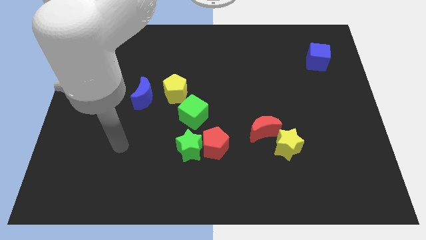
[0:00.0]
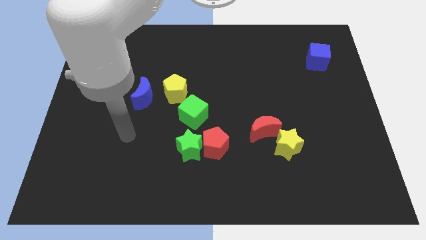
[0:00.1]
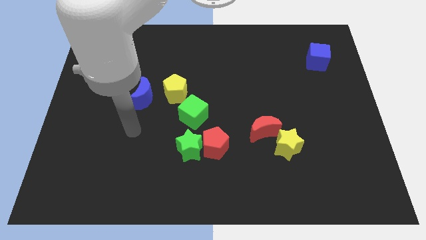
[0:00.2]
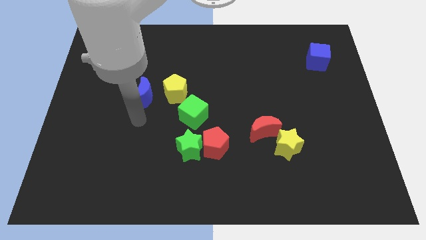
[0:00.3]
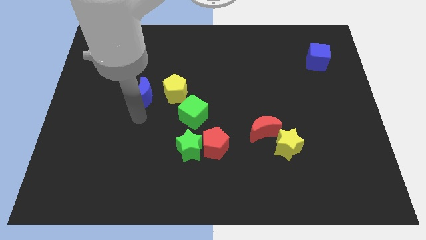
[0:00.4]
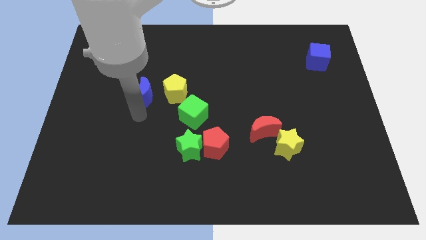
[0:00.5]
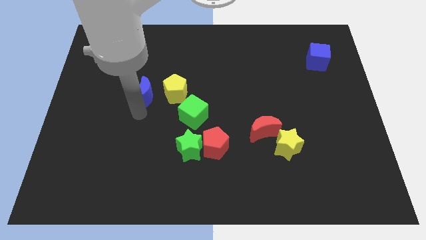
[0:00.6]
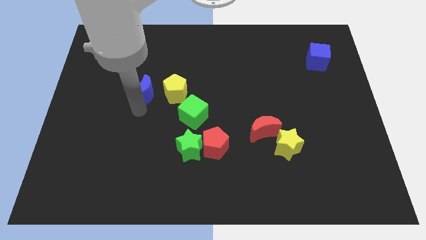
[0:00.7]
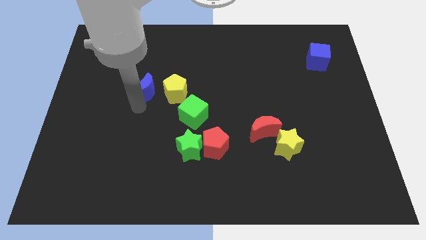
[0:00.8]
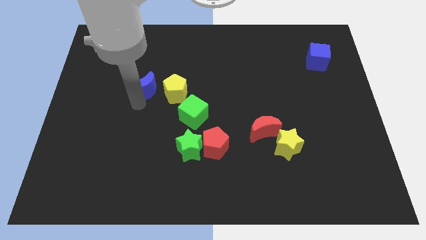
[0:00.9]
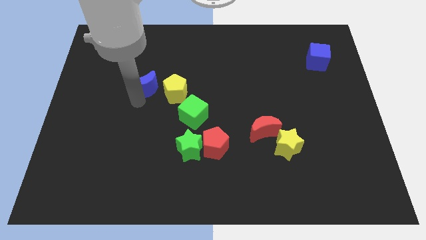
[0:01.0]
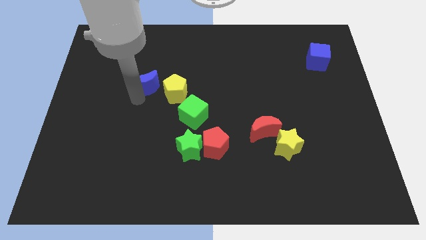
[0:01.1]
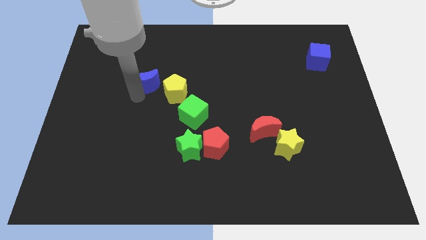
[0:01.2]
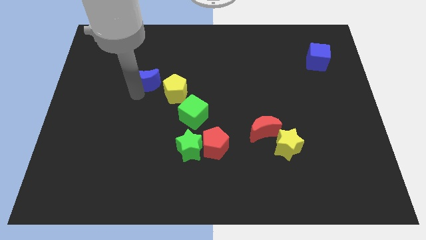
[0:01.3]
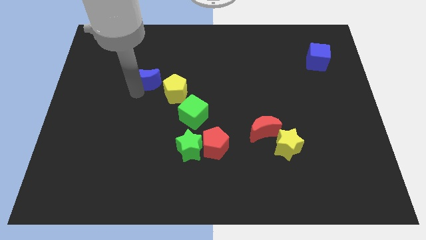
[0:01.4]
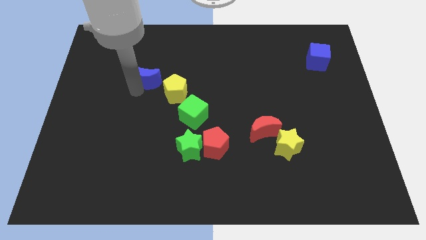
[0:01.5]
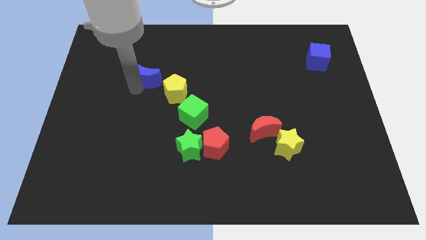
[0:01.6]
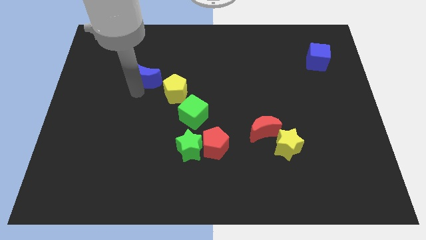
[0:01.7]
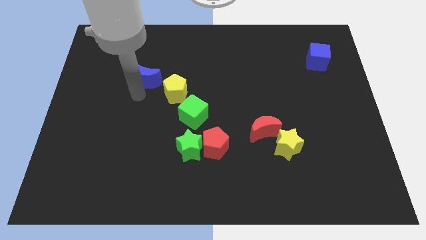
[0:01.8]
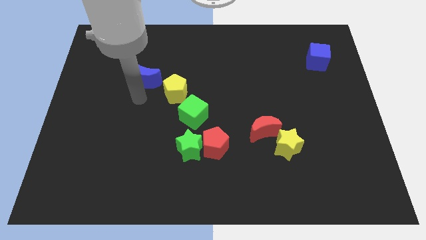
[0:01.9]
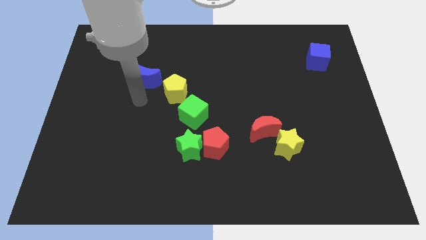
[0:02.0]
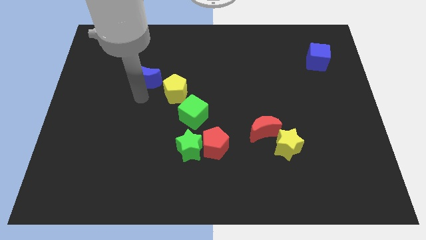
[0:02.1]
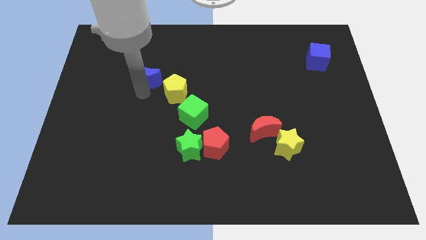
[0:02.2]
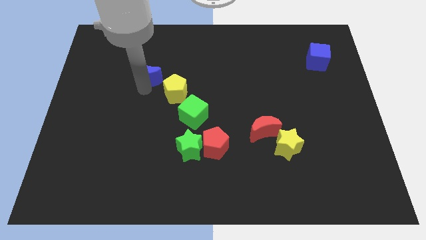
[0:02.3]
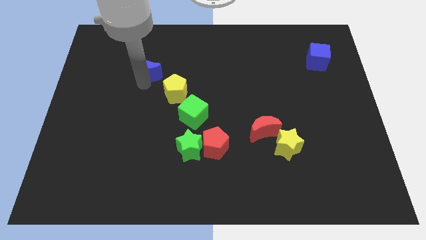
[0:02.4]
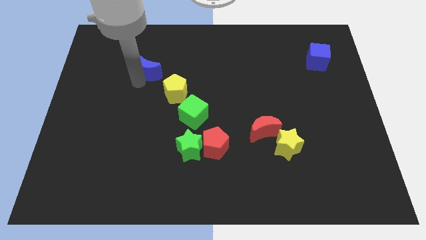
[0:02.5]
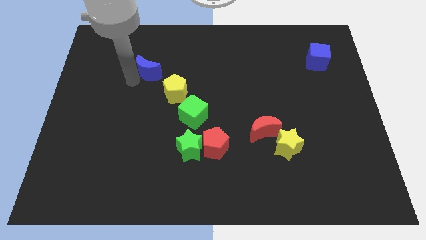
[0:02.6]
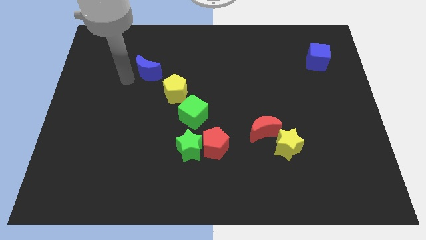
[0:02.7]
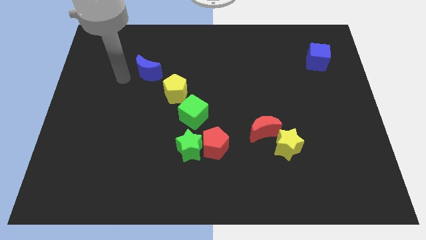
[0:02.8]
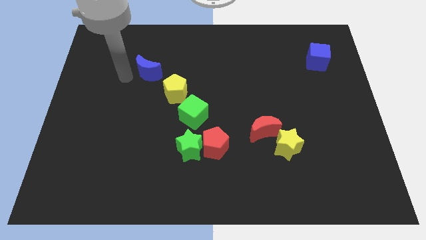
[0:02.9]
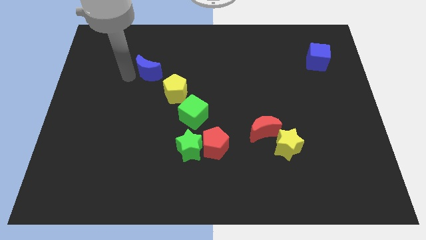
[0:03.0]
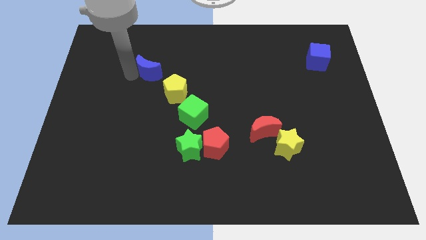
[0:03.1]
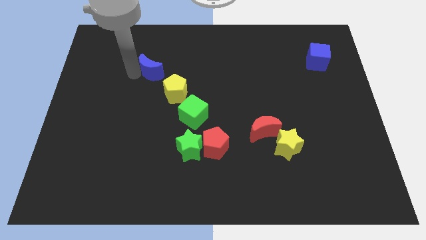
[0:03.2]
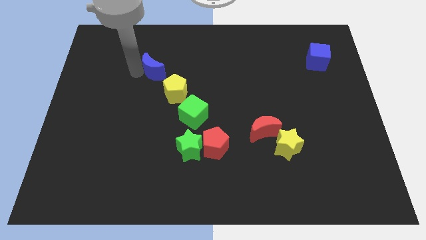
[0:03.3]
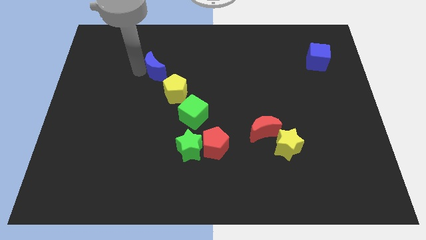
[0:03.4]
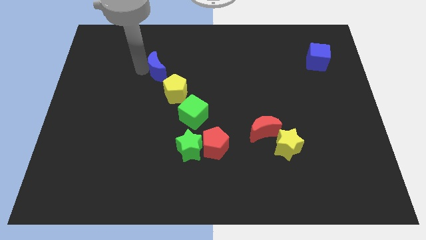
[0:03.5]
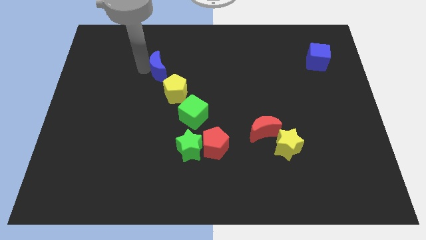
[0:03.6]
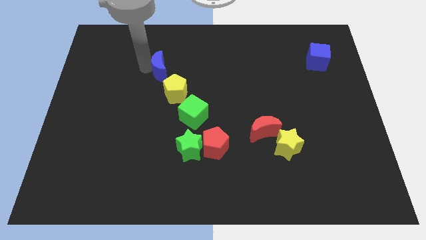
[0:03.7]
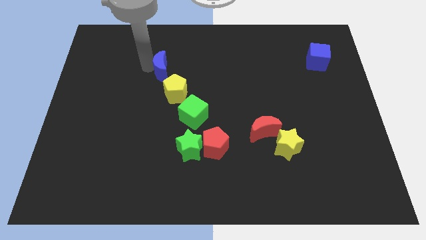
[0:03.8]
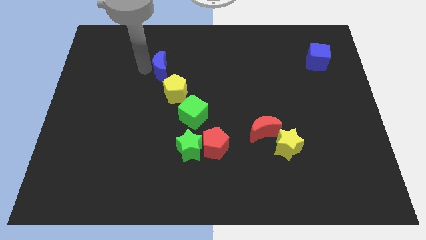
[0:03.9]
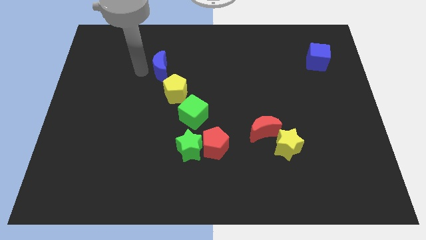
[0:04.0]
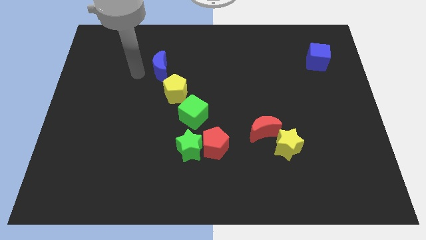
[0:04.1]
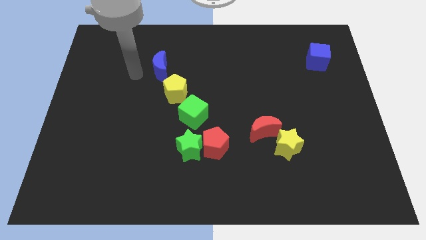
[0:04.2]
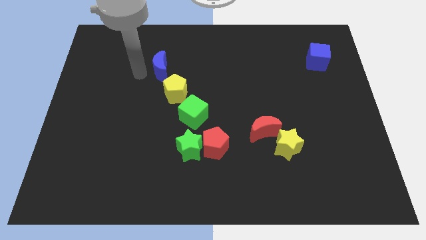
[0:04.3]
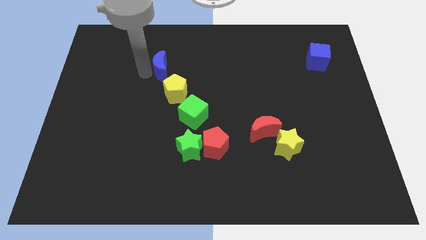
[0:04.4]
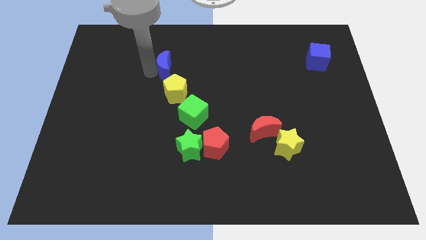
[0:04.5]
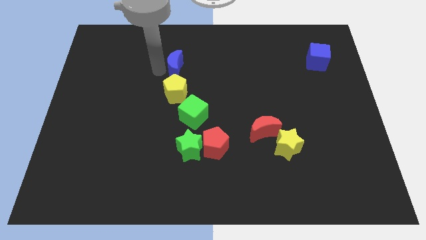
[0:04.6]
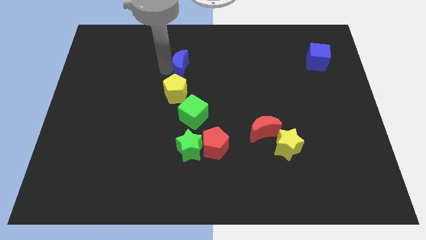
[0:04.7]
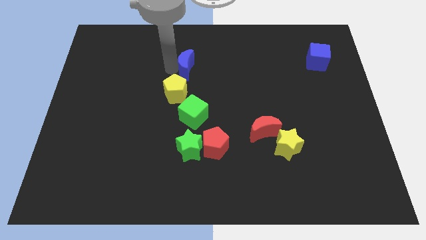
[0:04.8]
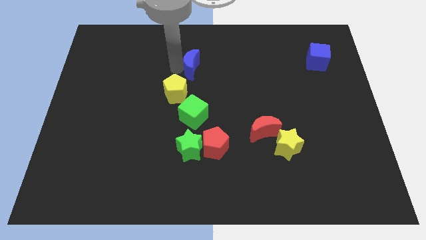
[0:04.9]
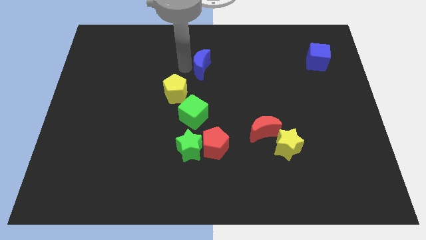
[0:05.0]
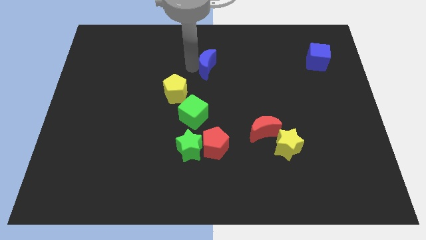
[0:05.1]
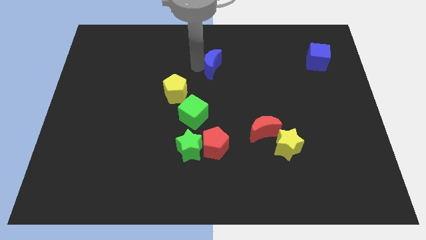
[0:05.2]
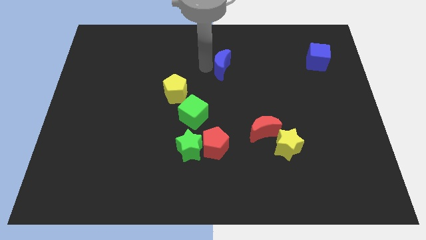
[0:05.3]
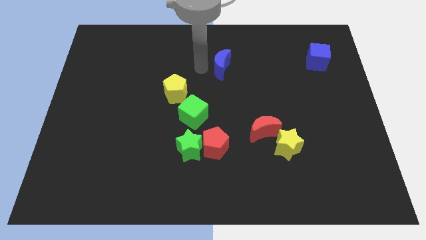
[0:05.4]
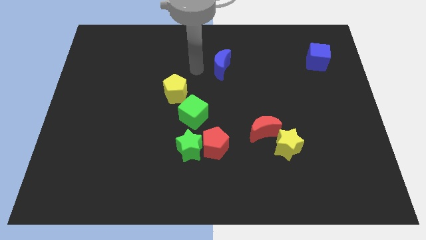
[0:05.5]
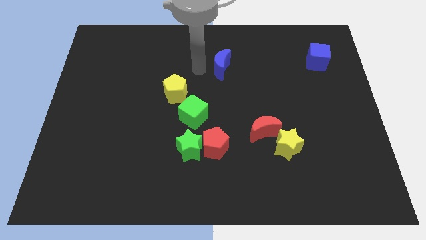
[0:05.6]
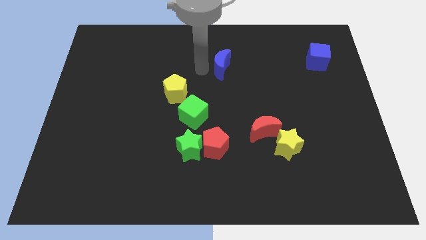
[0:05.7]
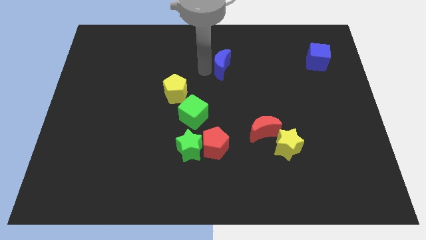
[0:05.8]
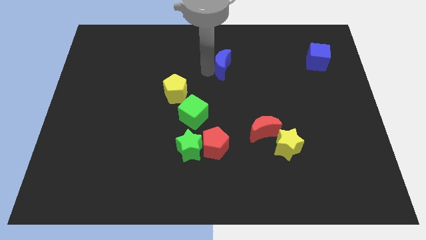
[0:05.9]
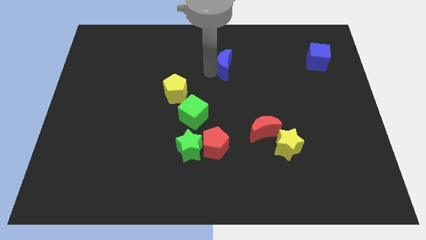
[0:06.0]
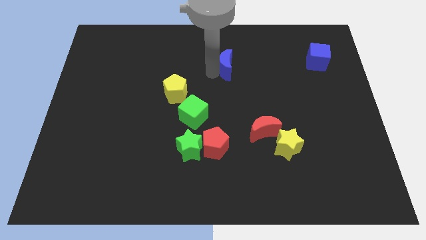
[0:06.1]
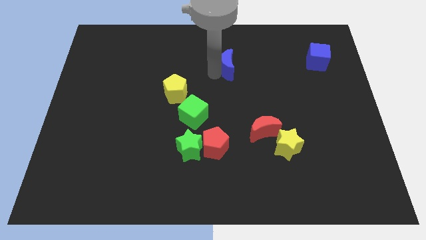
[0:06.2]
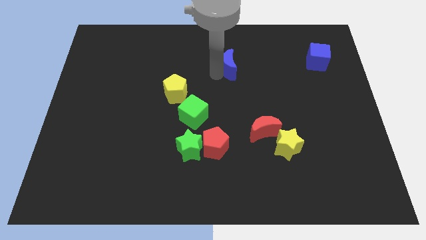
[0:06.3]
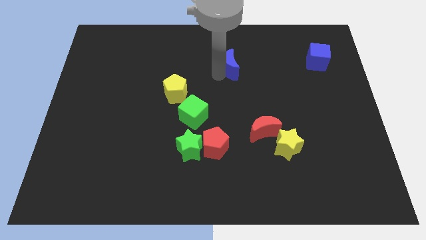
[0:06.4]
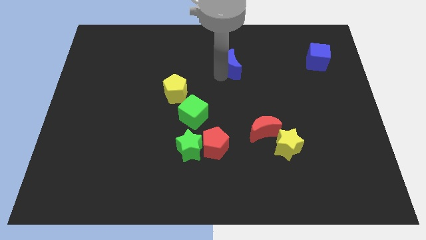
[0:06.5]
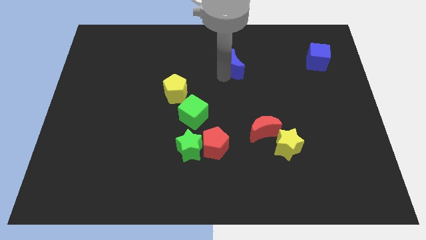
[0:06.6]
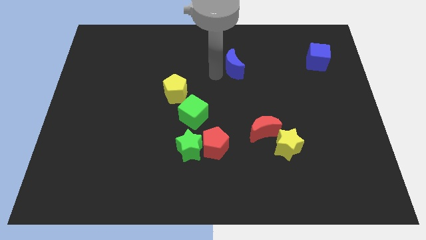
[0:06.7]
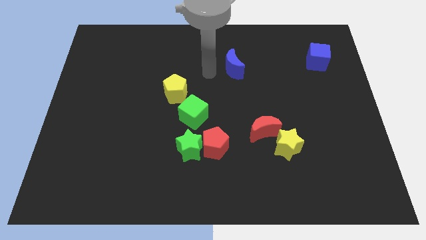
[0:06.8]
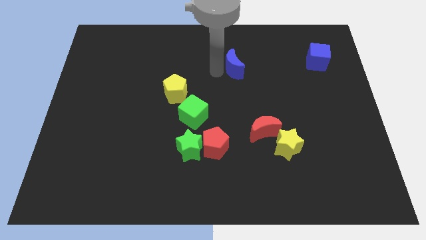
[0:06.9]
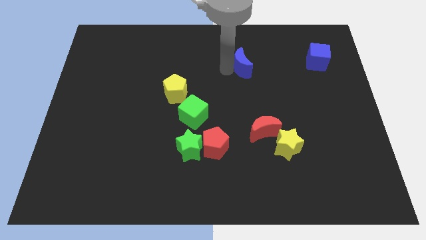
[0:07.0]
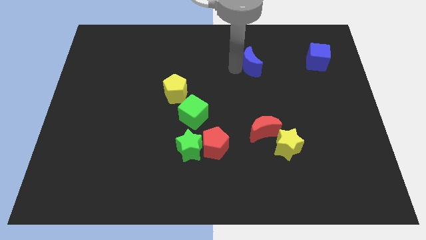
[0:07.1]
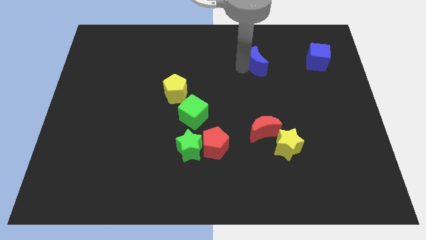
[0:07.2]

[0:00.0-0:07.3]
push the blue moon to the left of the blue cube
